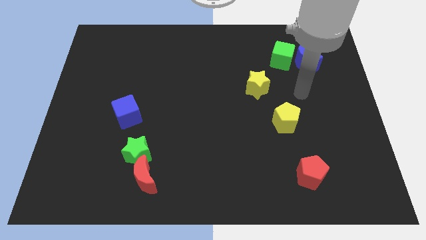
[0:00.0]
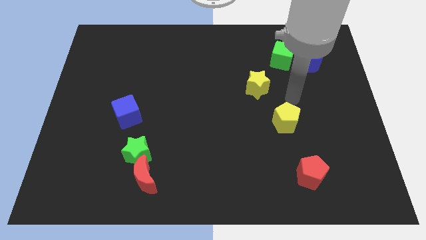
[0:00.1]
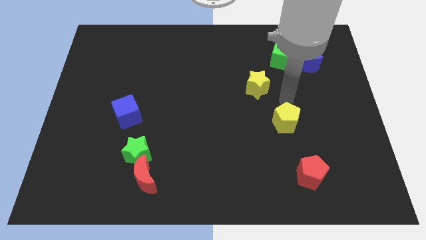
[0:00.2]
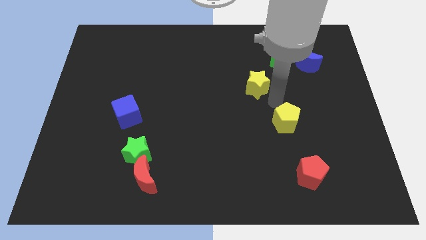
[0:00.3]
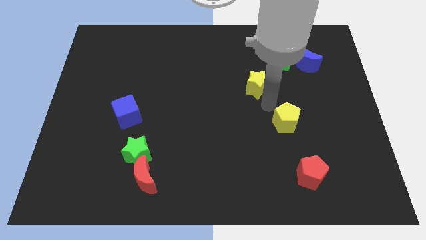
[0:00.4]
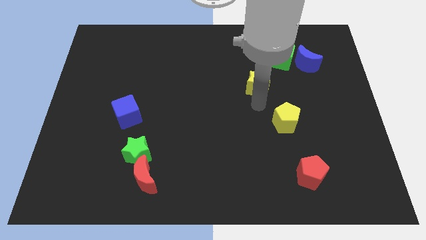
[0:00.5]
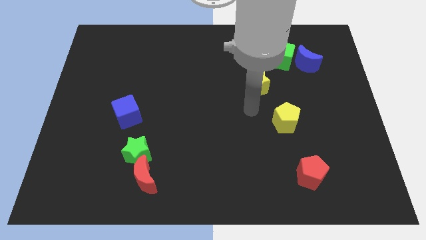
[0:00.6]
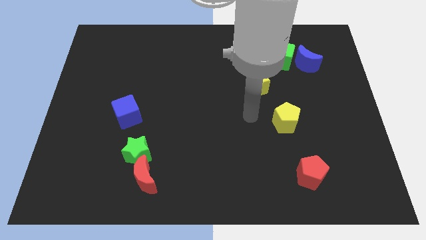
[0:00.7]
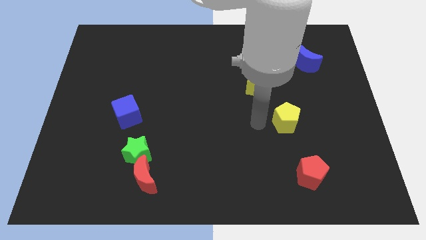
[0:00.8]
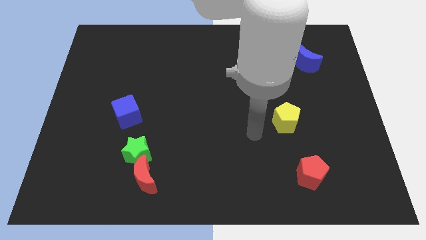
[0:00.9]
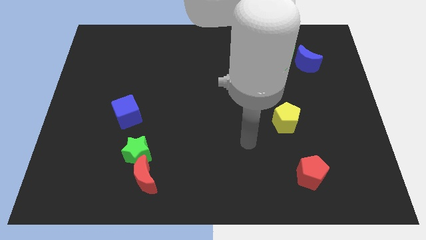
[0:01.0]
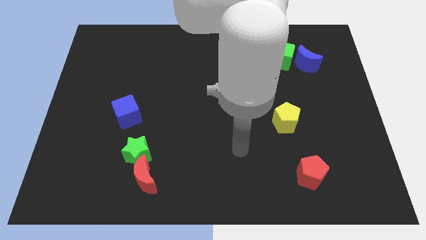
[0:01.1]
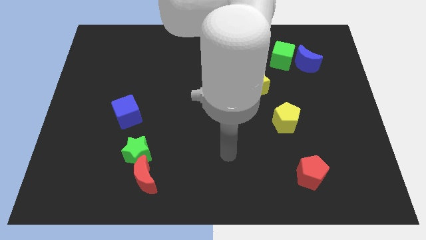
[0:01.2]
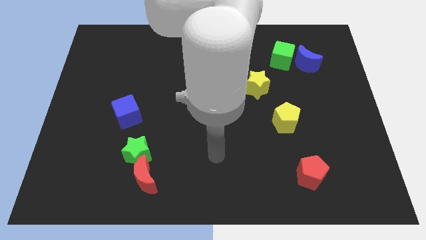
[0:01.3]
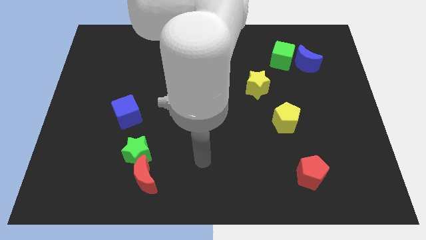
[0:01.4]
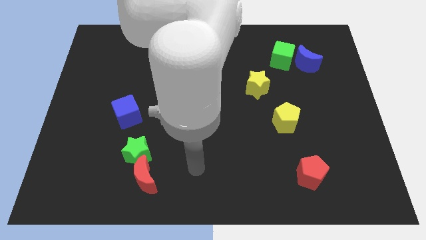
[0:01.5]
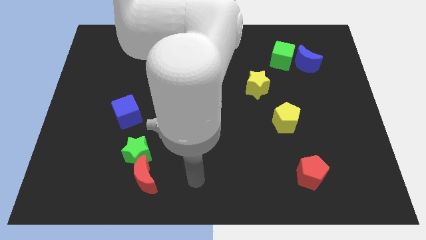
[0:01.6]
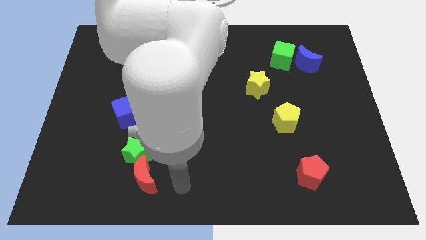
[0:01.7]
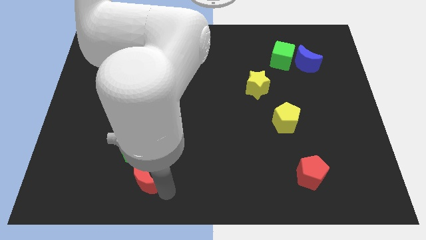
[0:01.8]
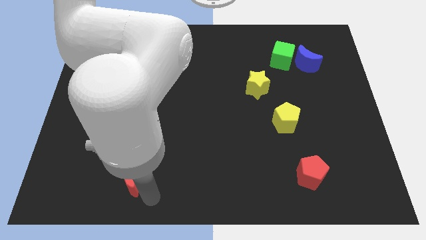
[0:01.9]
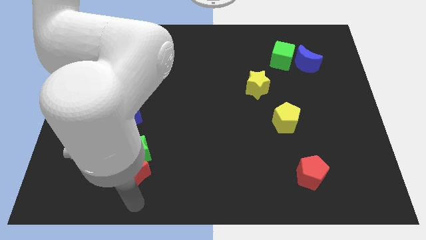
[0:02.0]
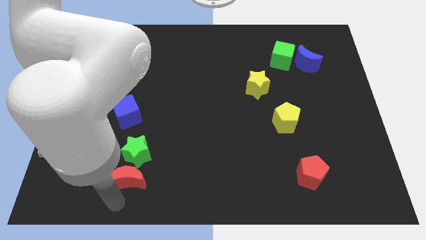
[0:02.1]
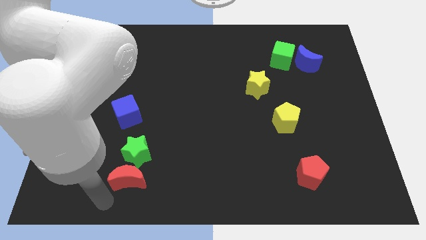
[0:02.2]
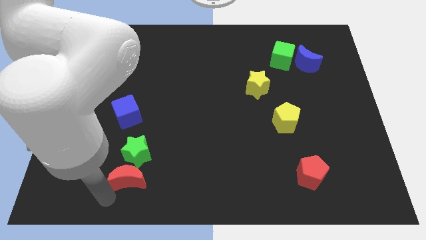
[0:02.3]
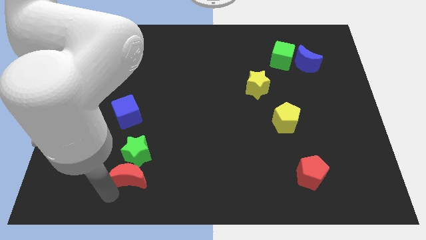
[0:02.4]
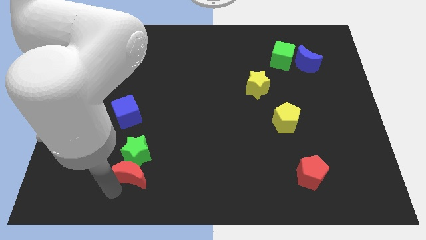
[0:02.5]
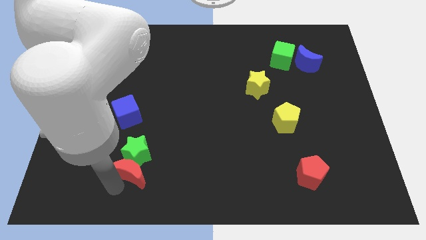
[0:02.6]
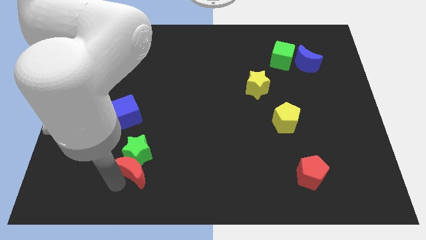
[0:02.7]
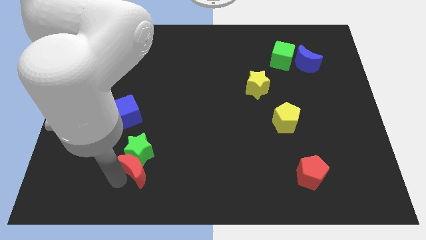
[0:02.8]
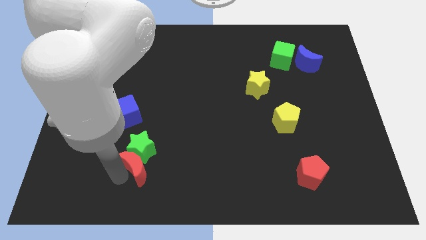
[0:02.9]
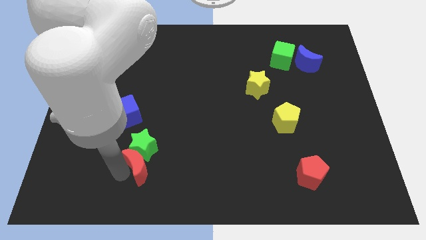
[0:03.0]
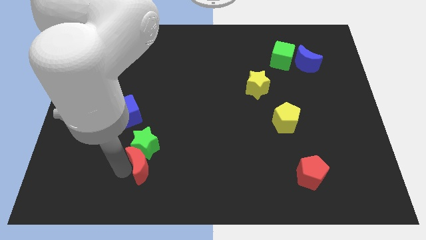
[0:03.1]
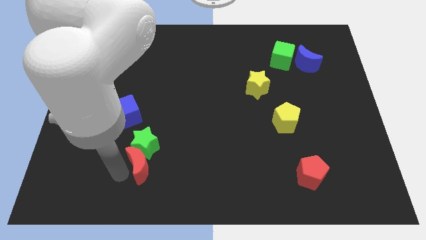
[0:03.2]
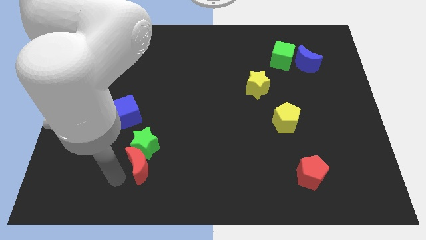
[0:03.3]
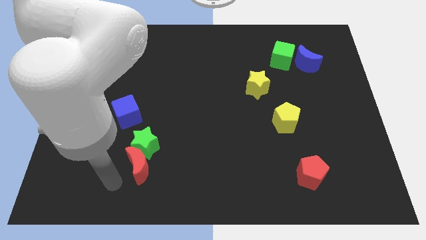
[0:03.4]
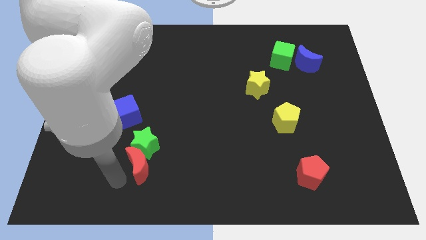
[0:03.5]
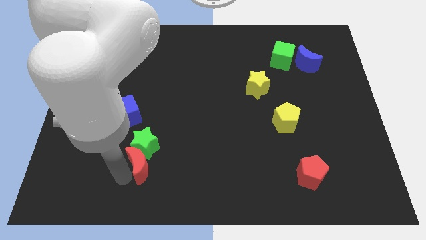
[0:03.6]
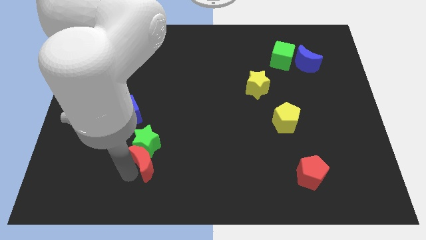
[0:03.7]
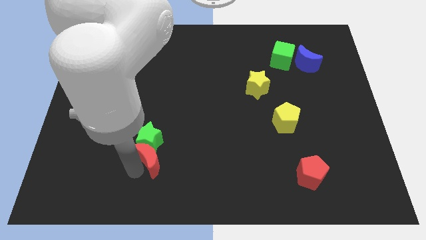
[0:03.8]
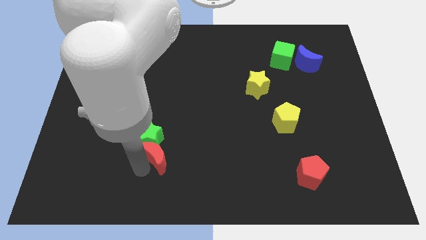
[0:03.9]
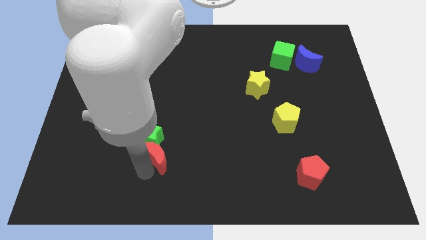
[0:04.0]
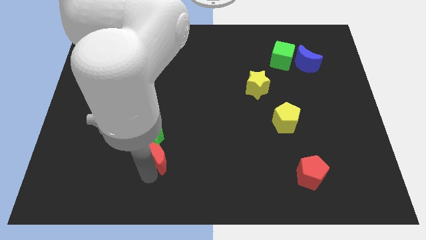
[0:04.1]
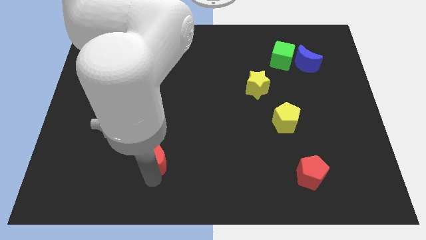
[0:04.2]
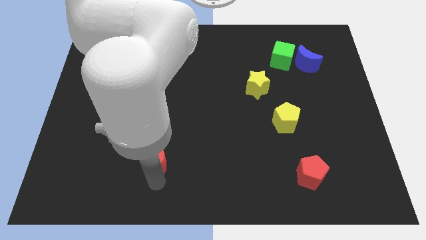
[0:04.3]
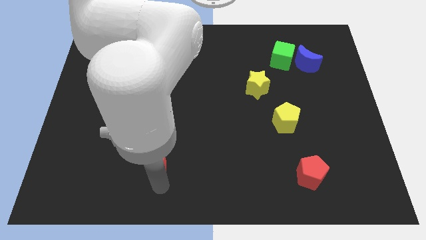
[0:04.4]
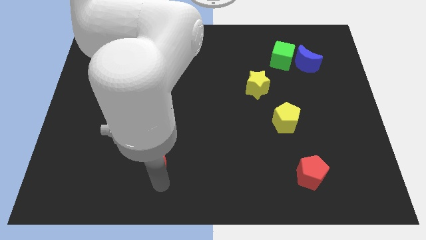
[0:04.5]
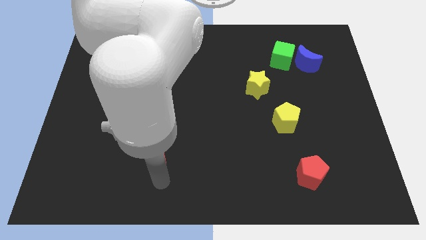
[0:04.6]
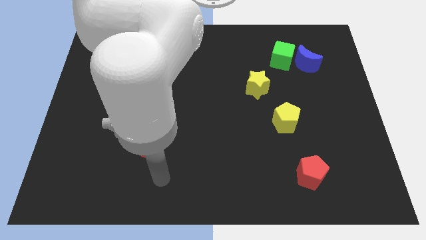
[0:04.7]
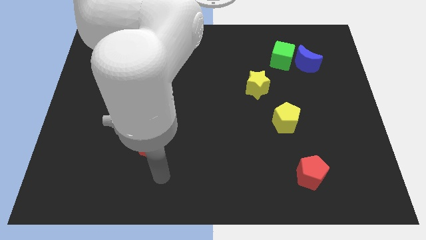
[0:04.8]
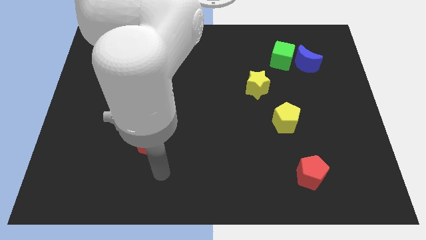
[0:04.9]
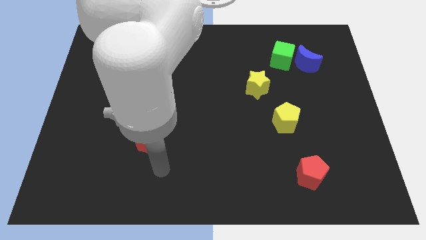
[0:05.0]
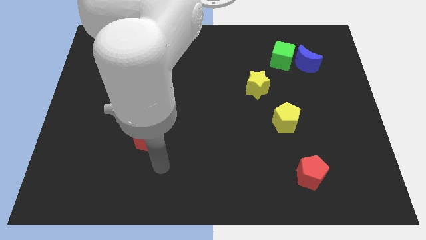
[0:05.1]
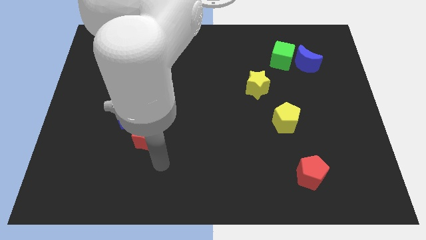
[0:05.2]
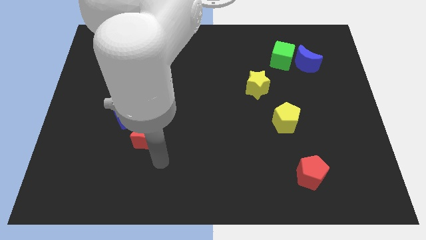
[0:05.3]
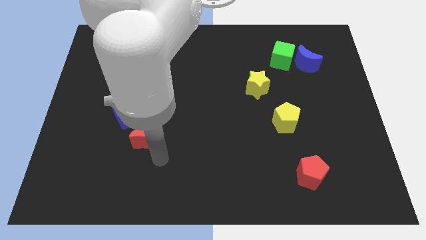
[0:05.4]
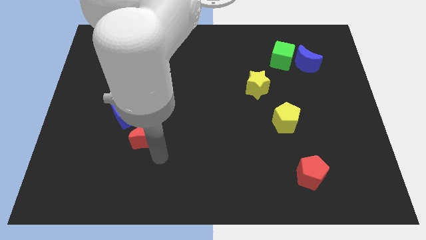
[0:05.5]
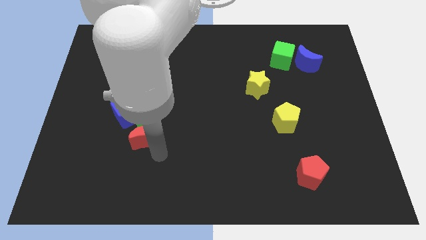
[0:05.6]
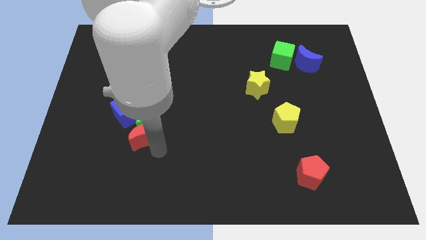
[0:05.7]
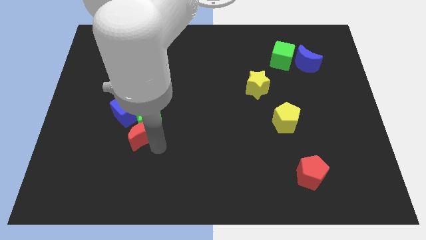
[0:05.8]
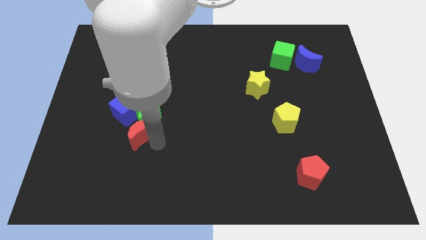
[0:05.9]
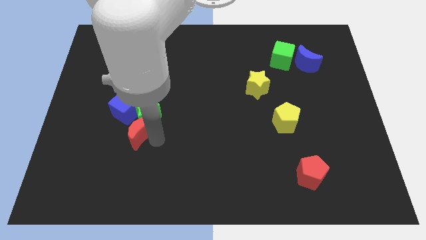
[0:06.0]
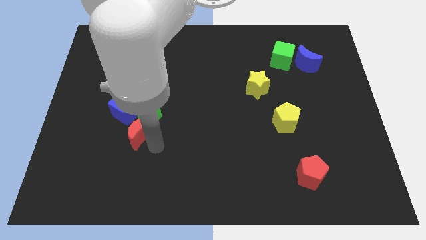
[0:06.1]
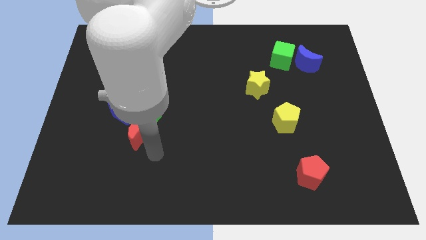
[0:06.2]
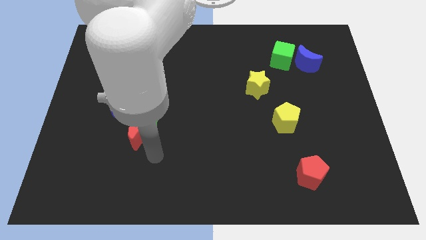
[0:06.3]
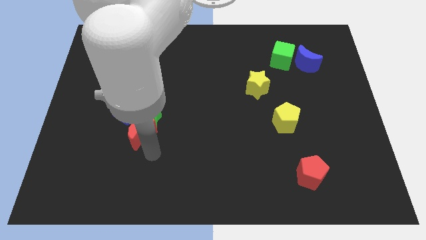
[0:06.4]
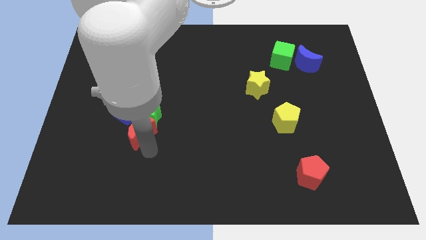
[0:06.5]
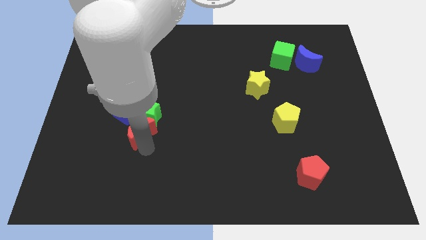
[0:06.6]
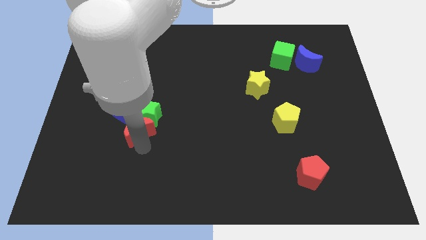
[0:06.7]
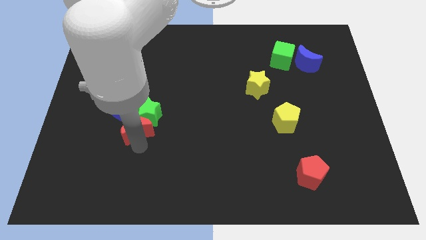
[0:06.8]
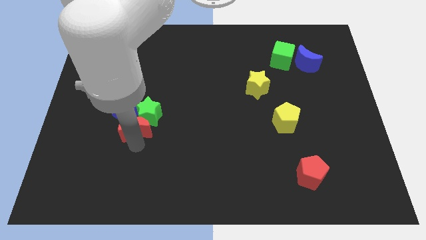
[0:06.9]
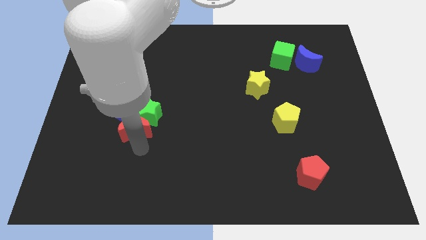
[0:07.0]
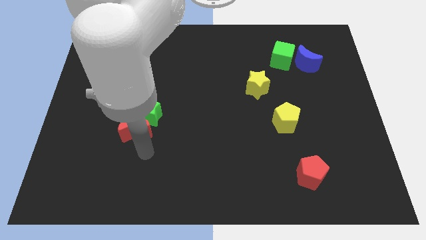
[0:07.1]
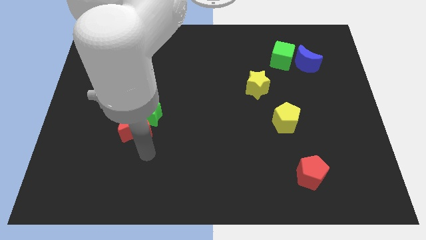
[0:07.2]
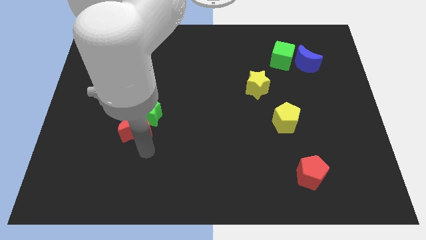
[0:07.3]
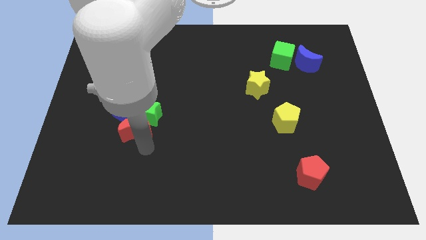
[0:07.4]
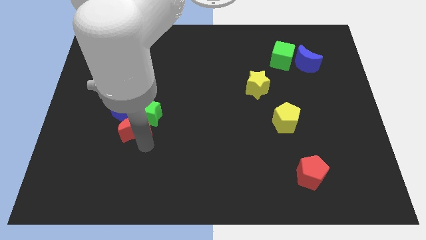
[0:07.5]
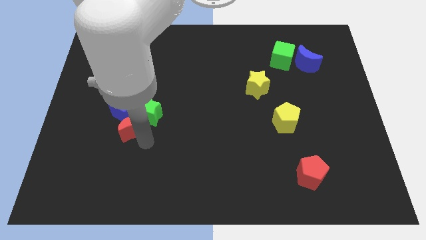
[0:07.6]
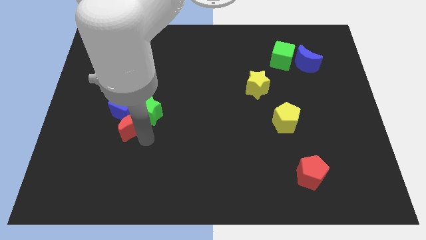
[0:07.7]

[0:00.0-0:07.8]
slide the red moon next to the blue cube
